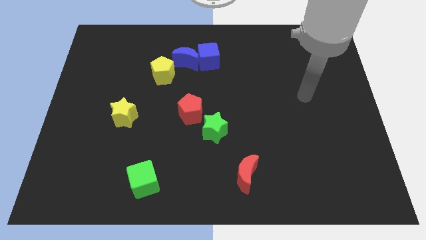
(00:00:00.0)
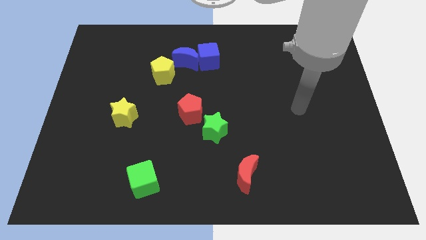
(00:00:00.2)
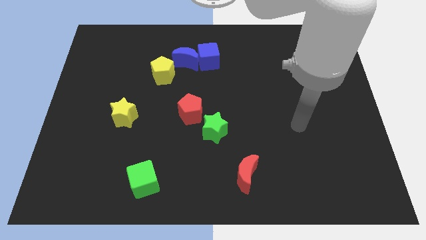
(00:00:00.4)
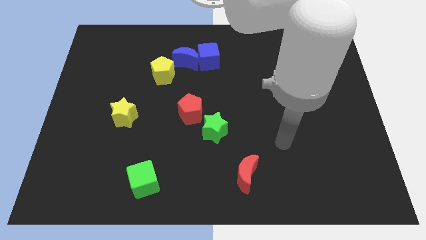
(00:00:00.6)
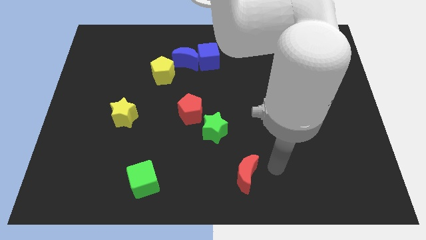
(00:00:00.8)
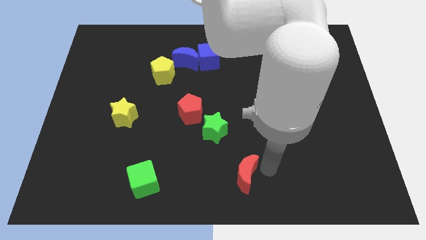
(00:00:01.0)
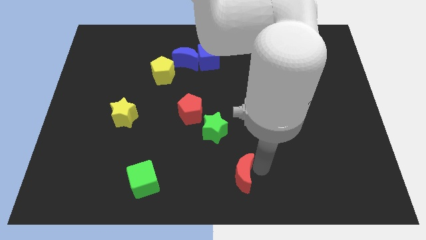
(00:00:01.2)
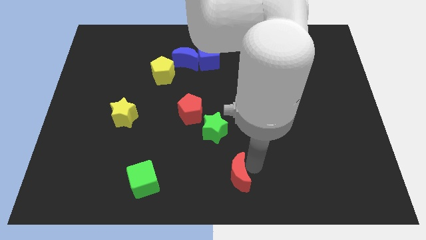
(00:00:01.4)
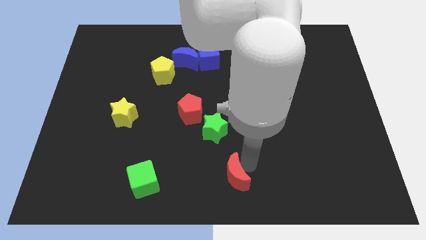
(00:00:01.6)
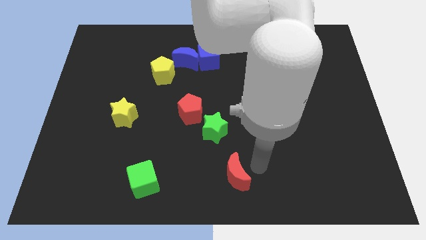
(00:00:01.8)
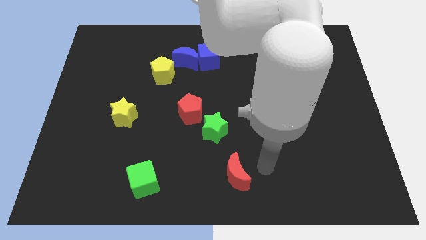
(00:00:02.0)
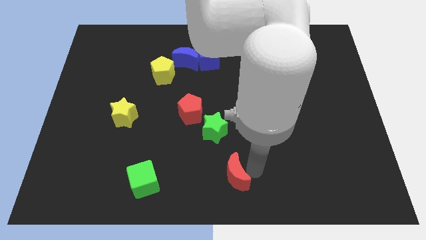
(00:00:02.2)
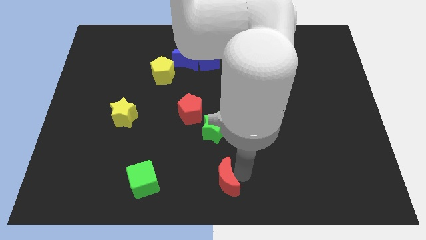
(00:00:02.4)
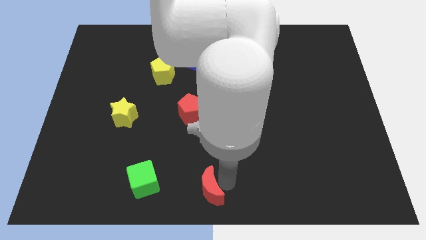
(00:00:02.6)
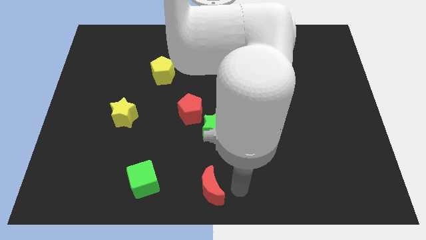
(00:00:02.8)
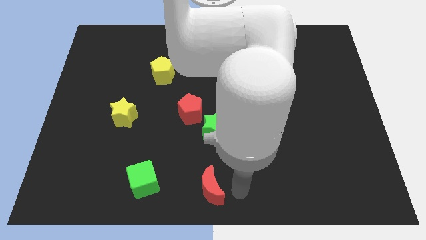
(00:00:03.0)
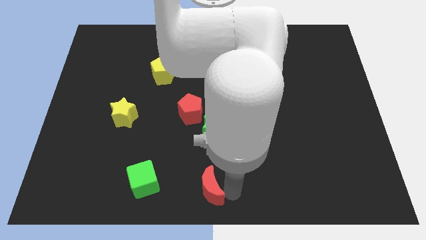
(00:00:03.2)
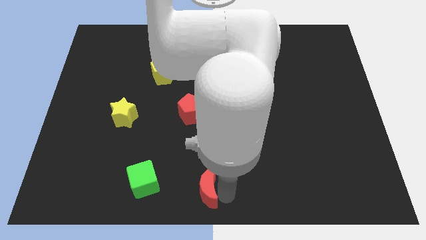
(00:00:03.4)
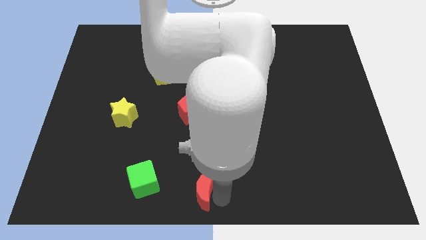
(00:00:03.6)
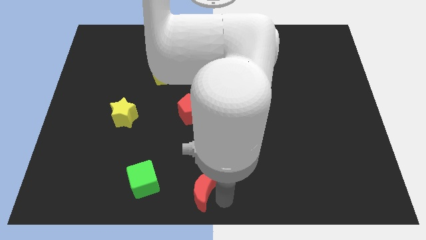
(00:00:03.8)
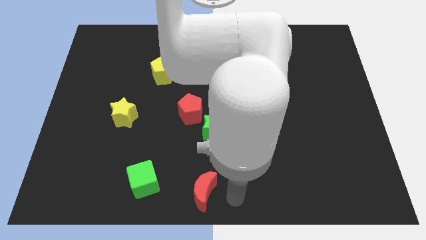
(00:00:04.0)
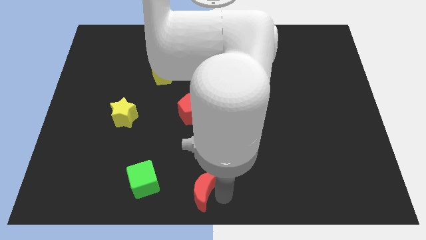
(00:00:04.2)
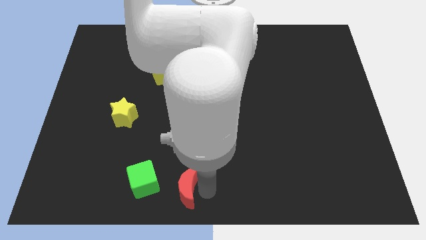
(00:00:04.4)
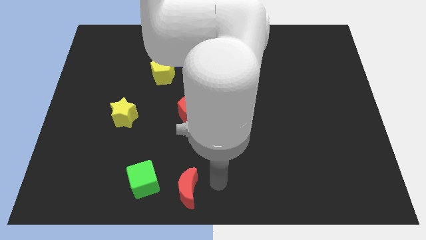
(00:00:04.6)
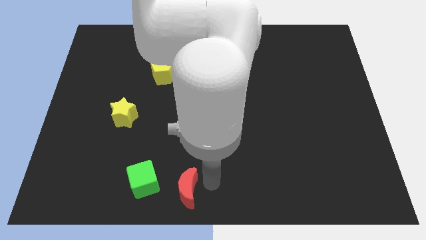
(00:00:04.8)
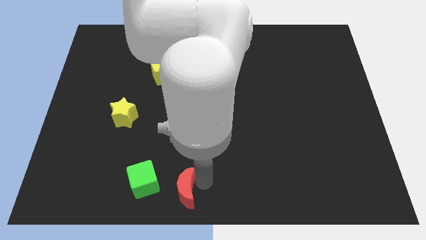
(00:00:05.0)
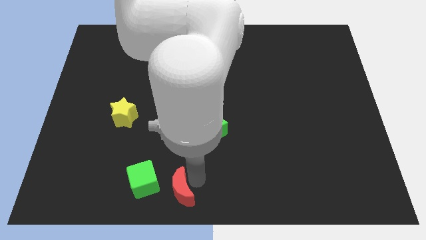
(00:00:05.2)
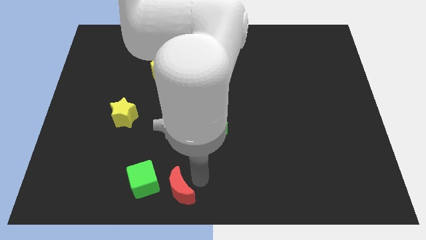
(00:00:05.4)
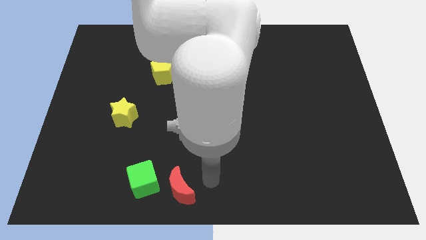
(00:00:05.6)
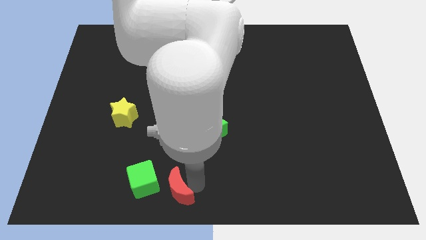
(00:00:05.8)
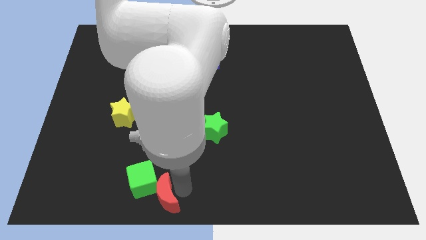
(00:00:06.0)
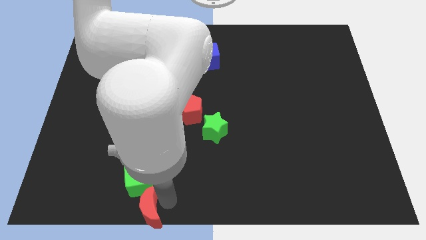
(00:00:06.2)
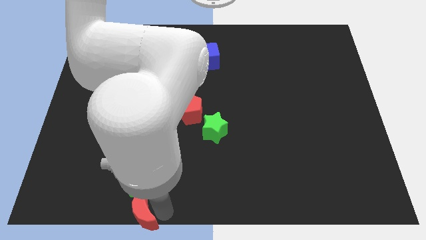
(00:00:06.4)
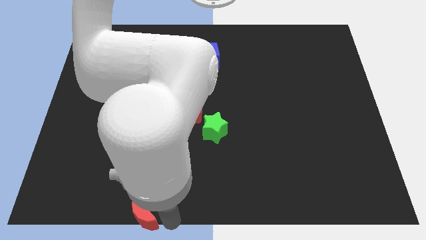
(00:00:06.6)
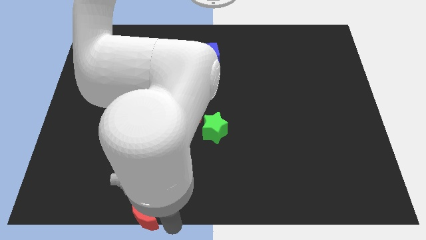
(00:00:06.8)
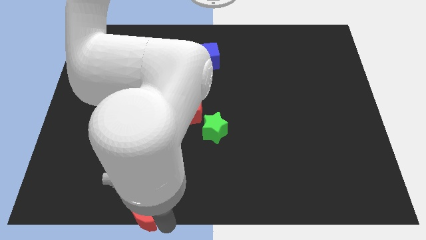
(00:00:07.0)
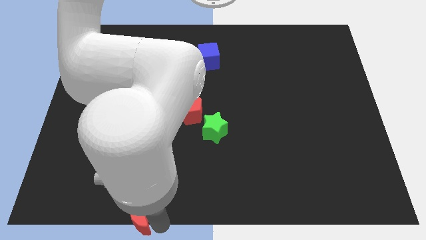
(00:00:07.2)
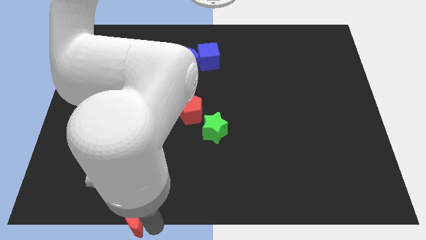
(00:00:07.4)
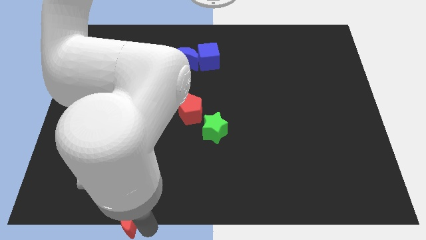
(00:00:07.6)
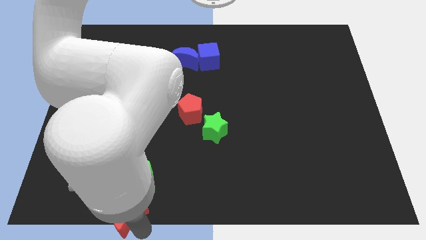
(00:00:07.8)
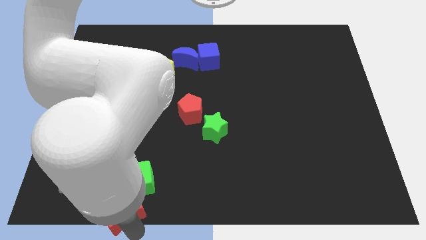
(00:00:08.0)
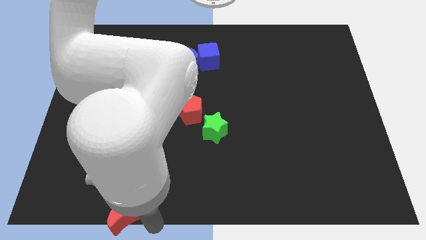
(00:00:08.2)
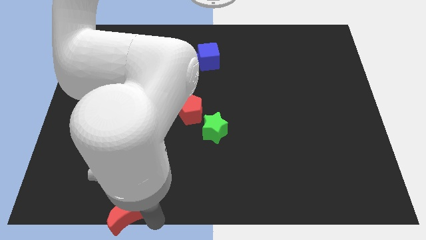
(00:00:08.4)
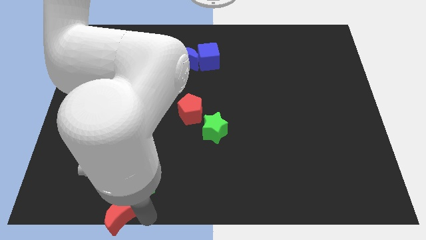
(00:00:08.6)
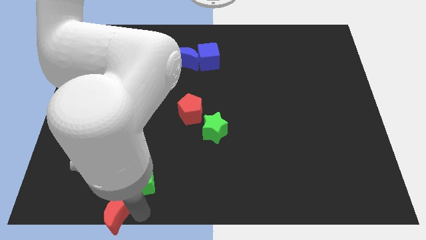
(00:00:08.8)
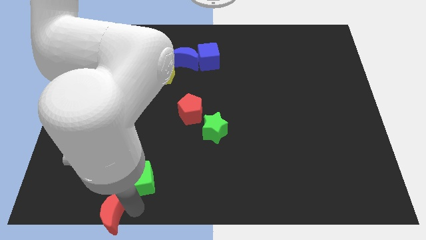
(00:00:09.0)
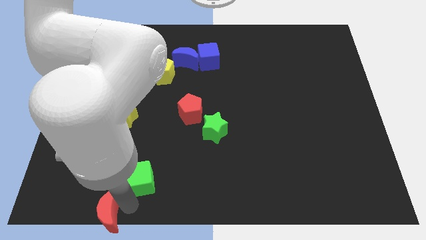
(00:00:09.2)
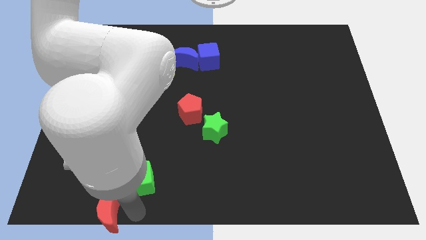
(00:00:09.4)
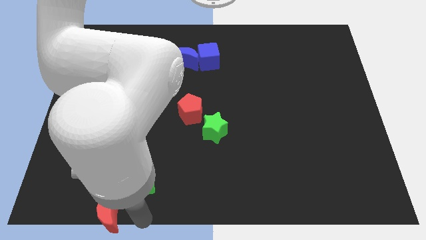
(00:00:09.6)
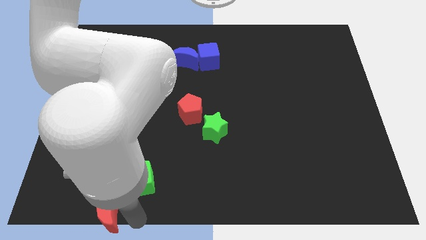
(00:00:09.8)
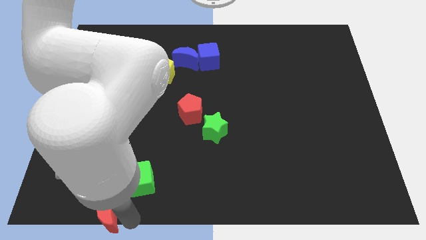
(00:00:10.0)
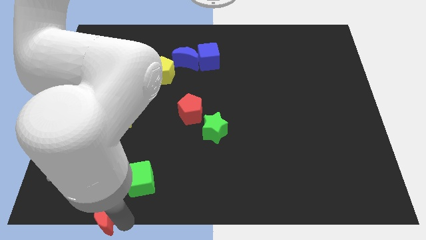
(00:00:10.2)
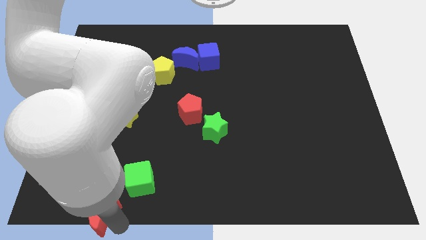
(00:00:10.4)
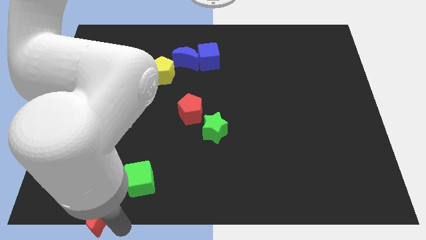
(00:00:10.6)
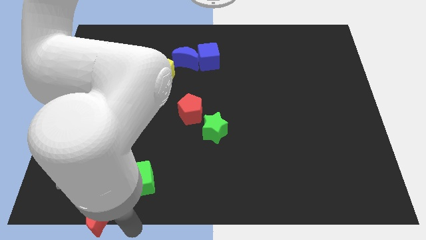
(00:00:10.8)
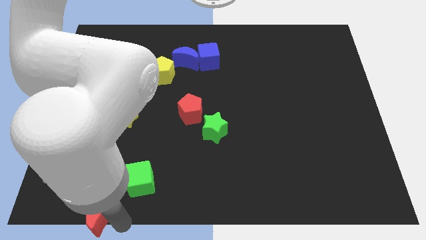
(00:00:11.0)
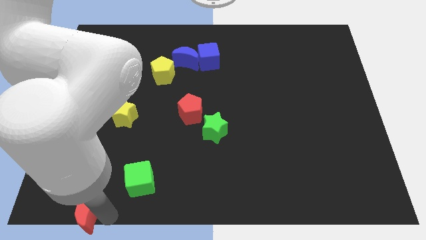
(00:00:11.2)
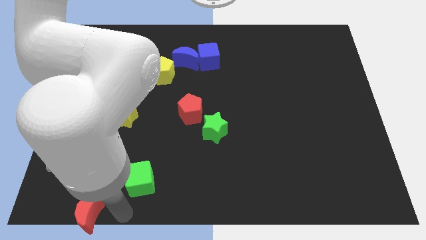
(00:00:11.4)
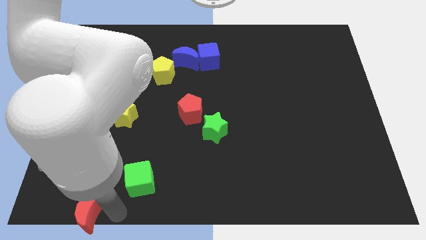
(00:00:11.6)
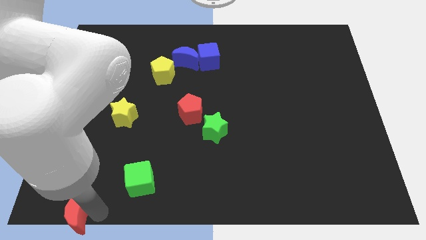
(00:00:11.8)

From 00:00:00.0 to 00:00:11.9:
move the red moon to the bottom left of the board
